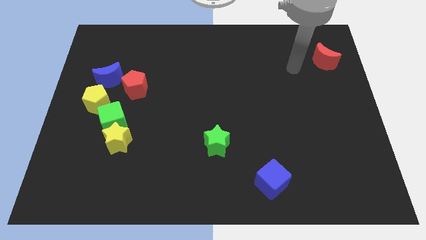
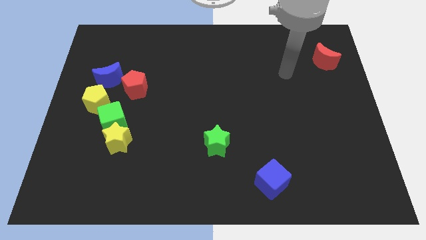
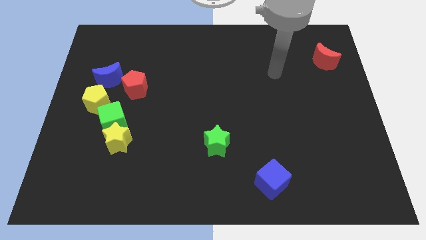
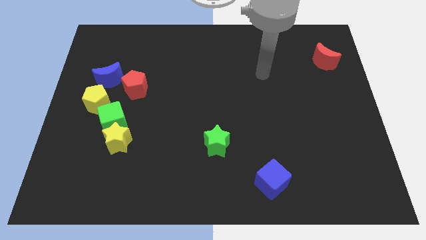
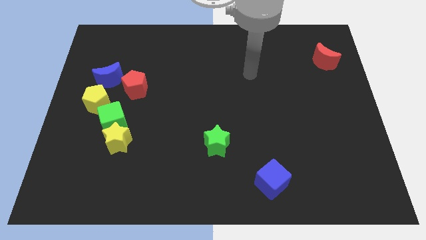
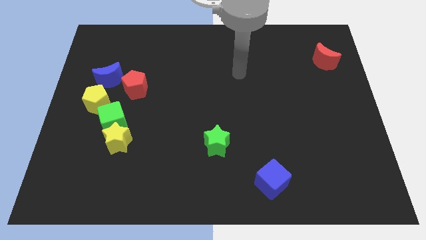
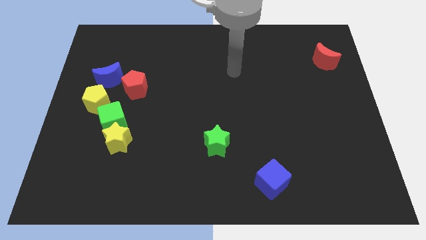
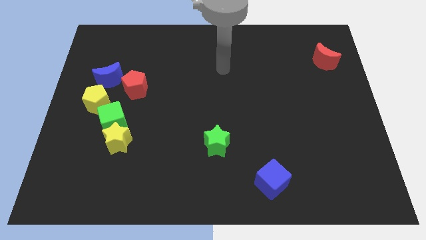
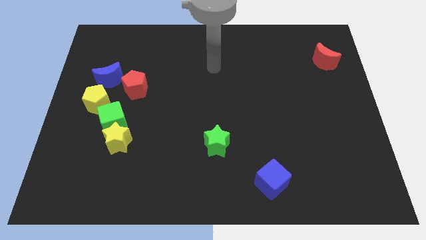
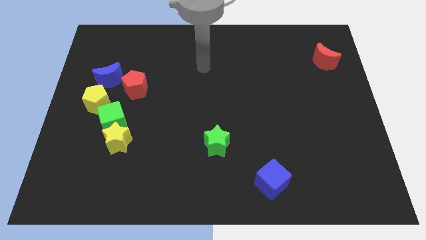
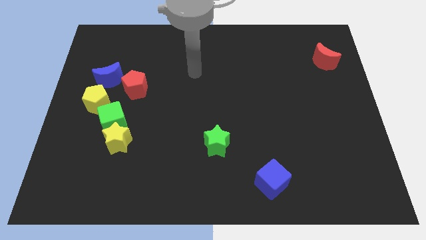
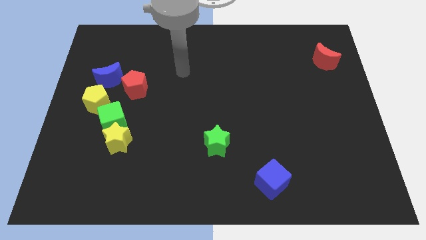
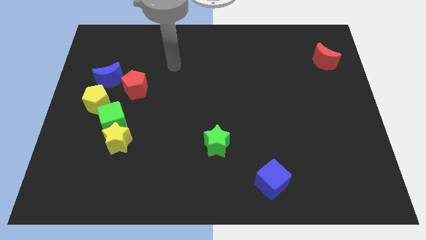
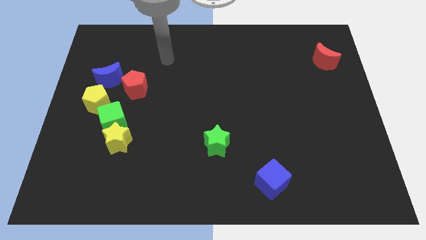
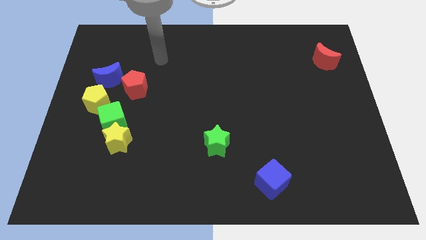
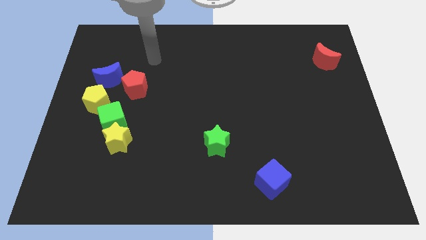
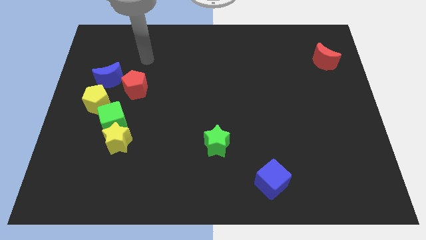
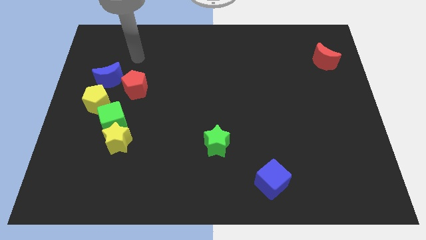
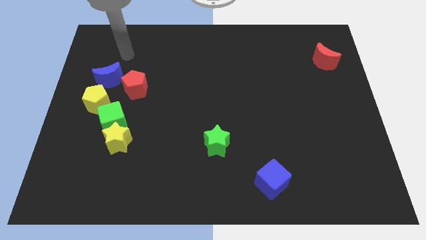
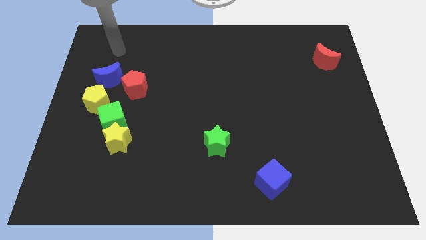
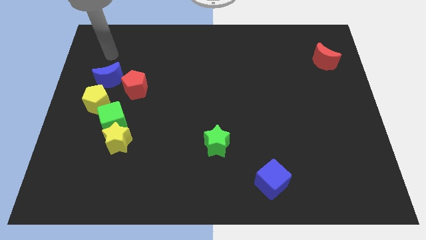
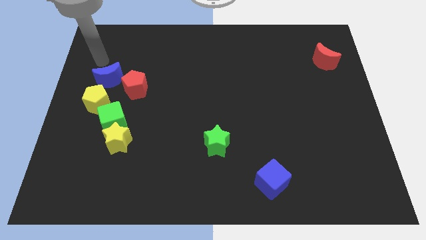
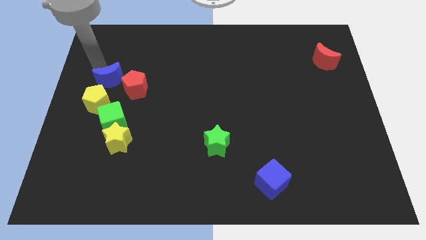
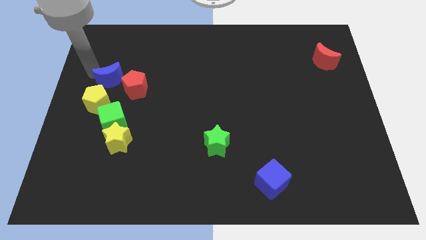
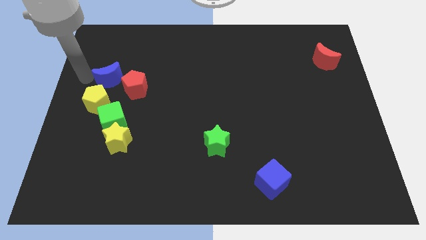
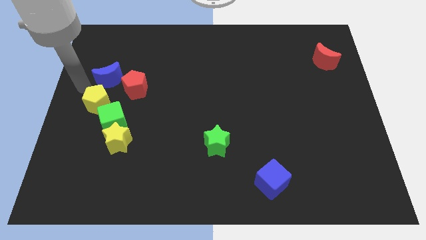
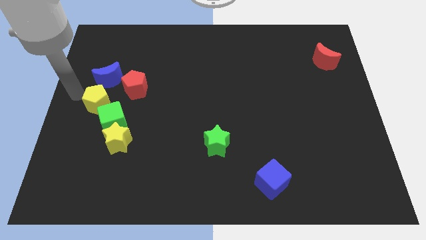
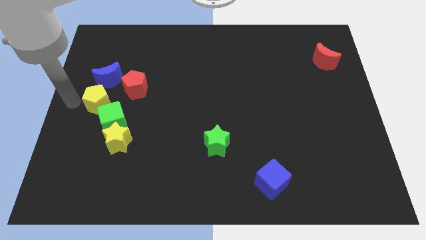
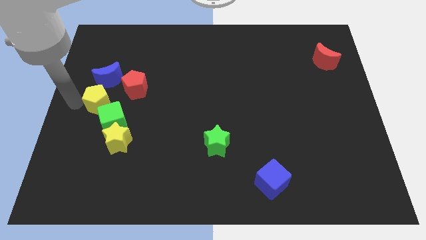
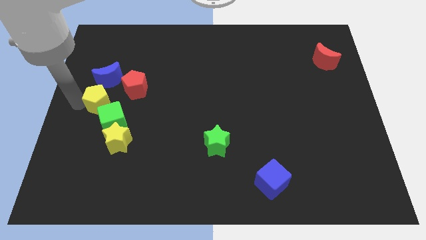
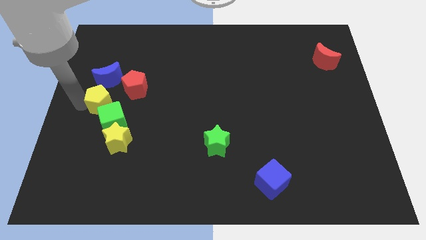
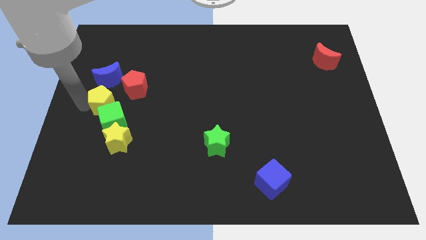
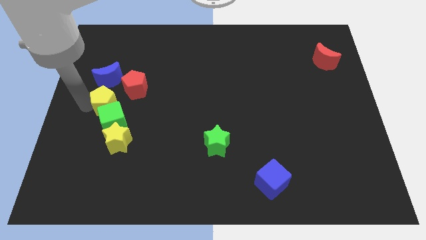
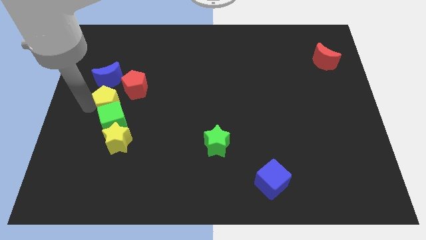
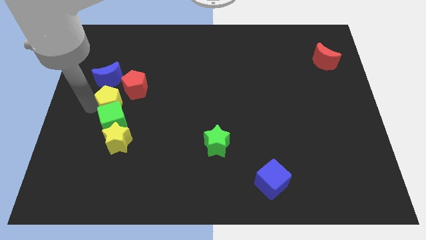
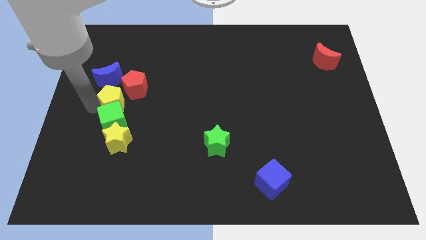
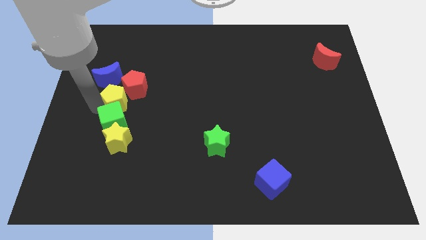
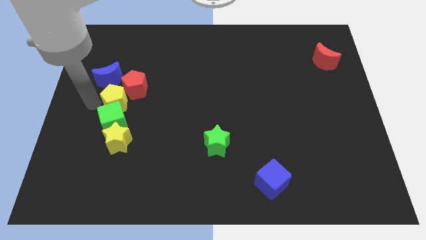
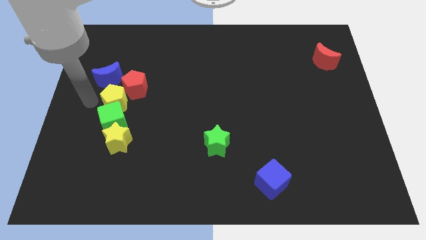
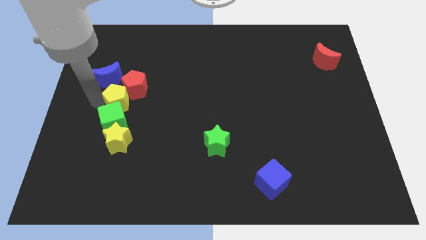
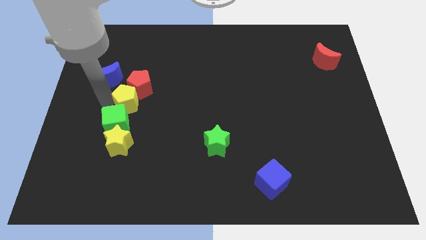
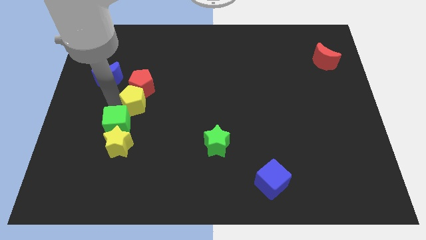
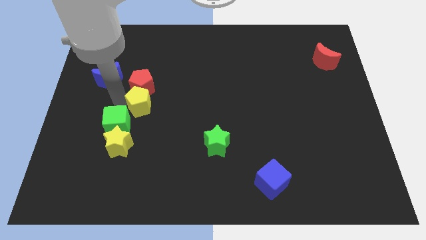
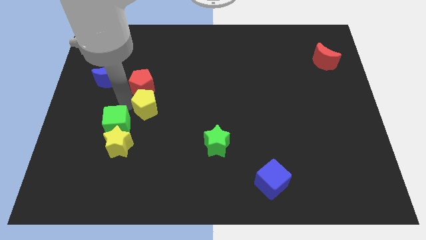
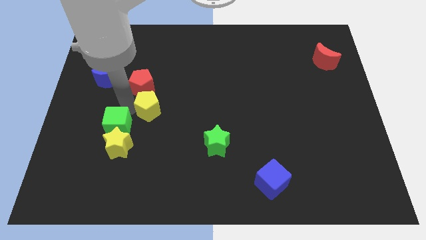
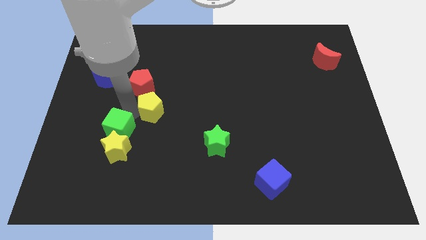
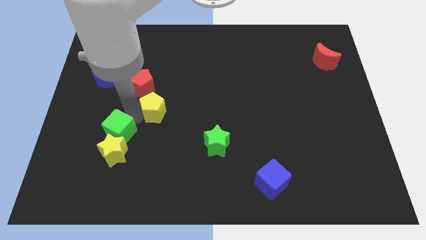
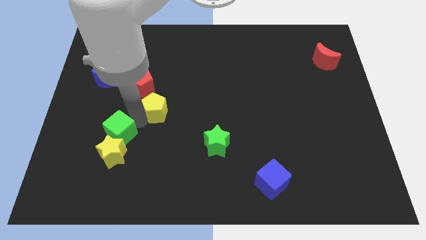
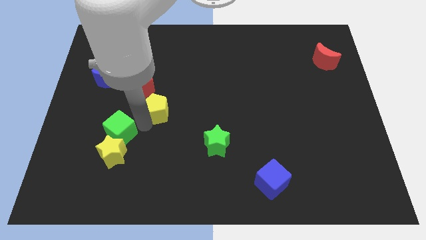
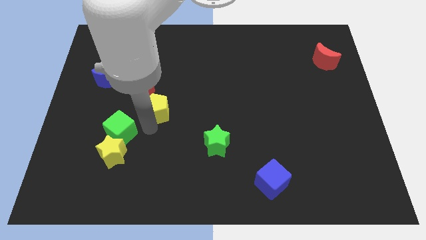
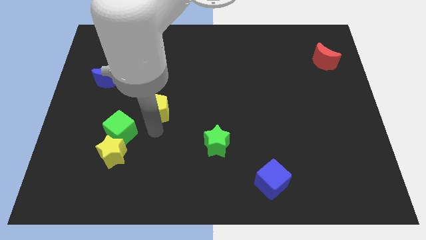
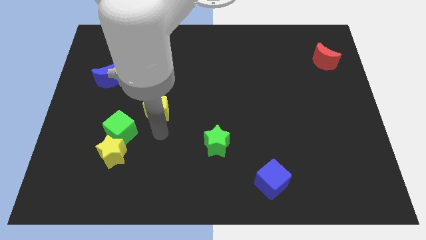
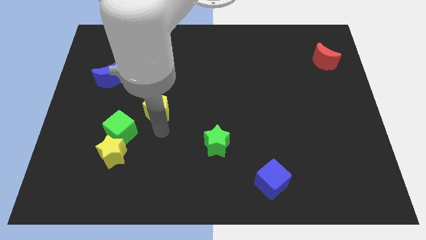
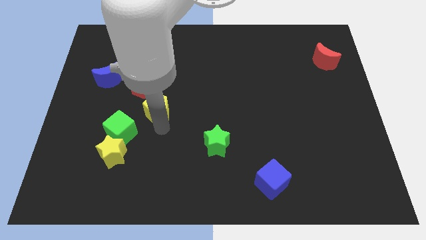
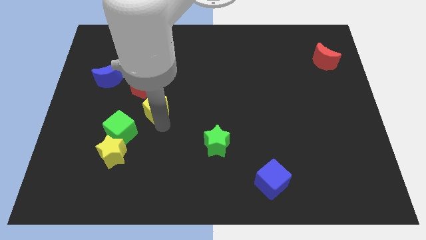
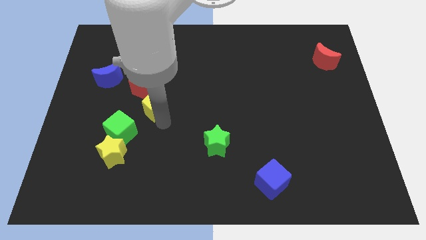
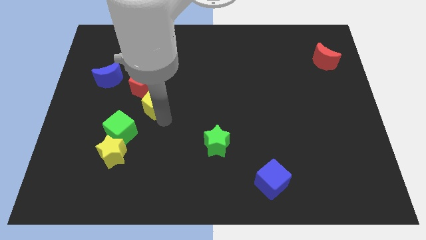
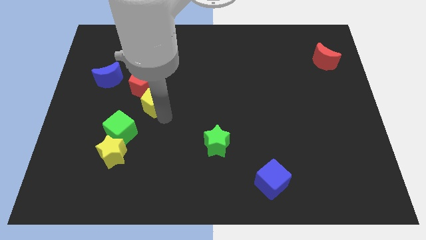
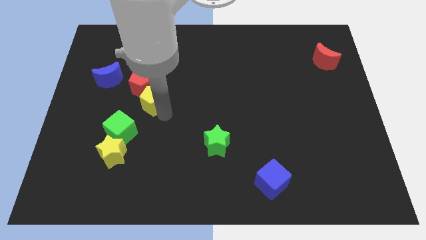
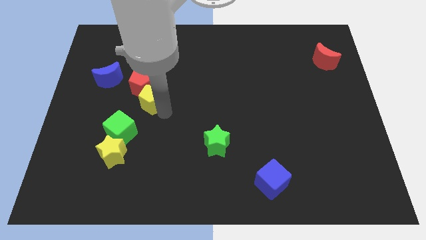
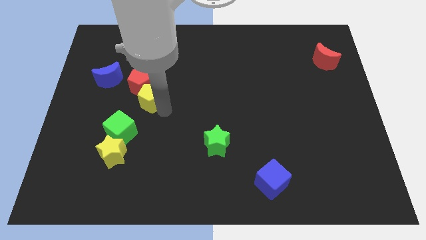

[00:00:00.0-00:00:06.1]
push the yellow pentagon diagonally upwards and right somewhat

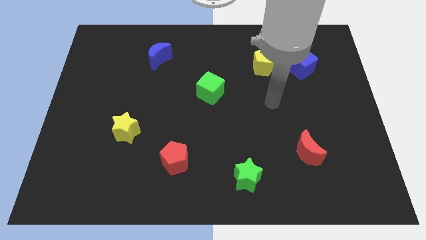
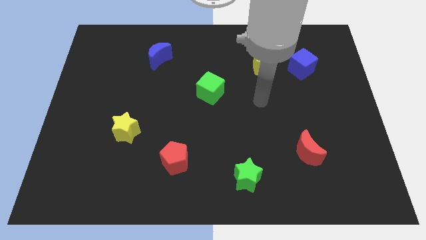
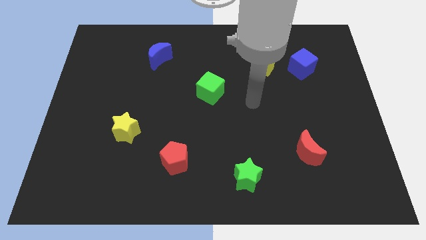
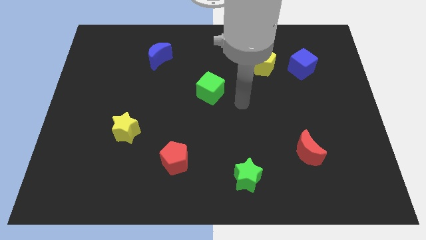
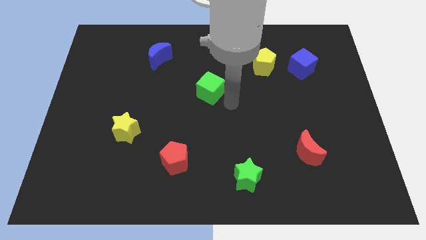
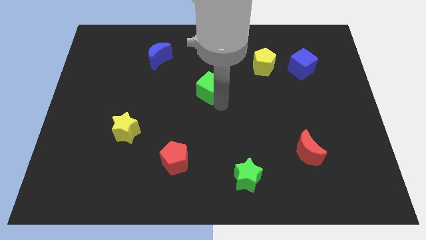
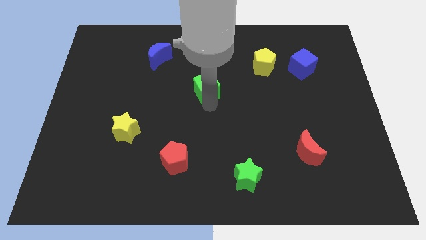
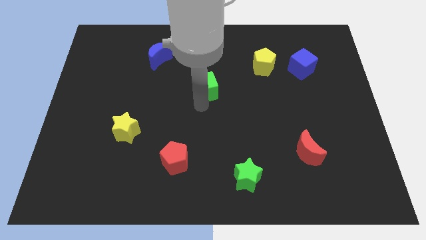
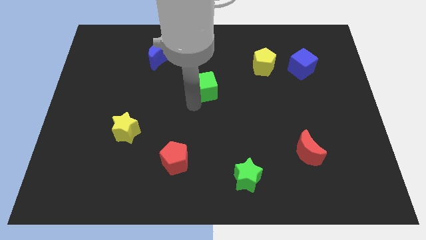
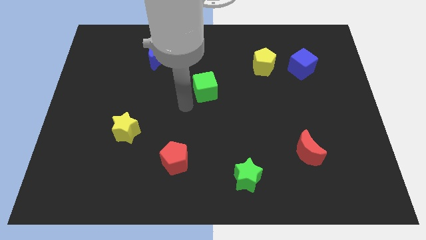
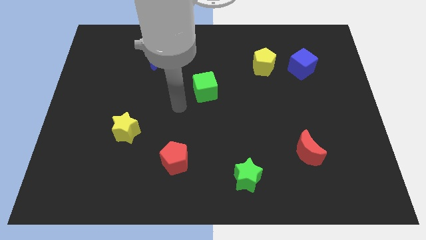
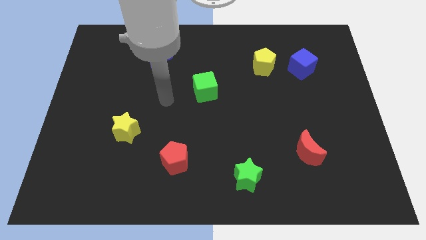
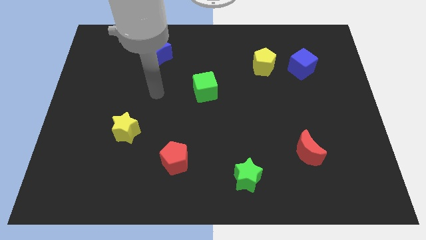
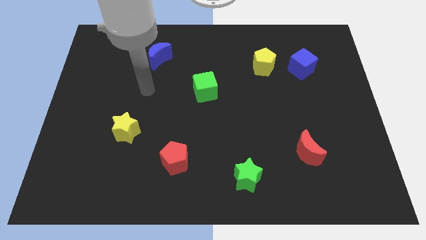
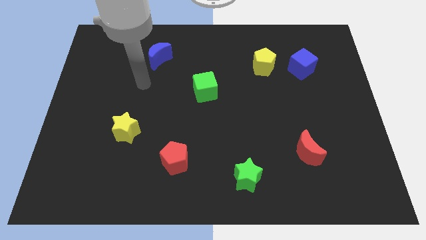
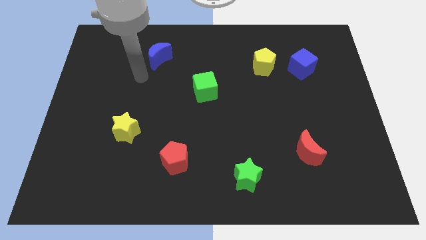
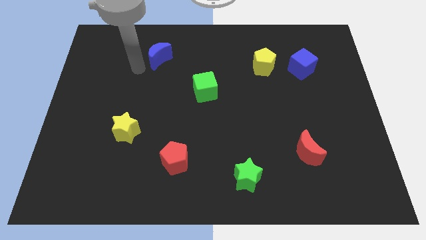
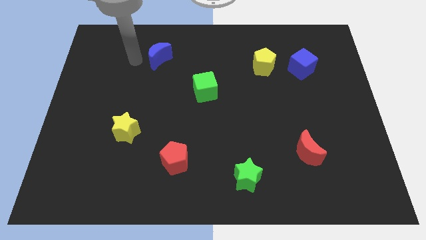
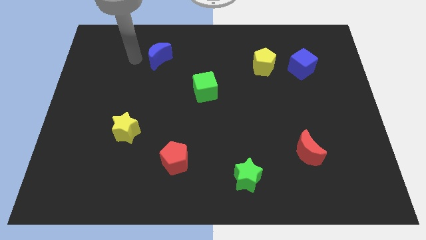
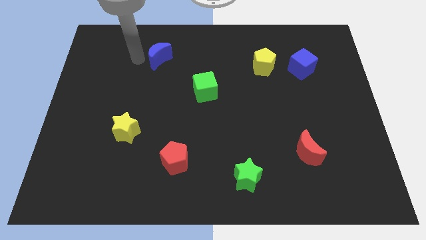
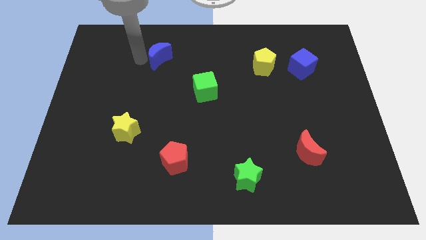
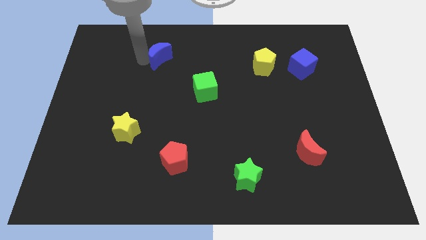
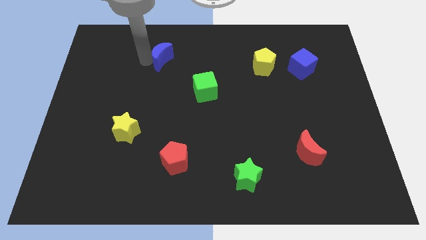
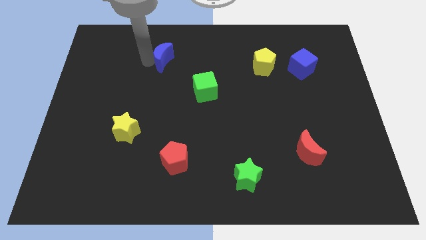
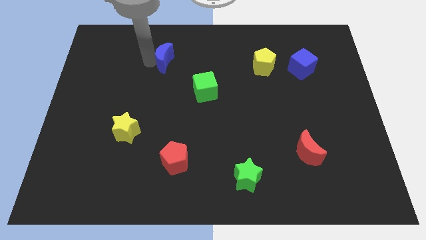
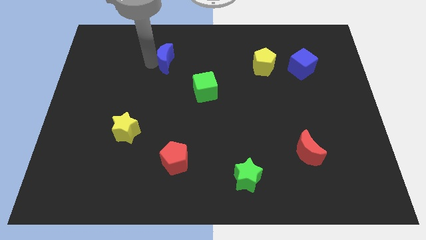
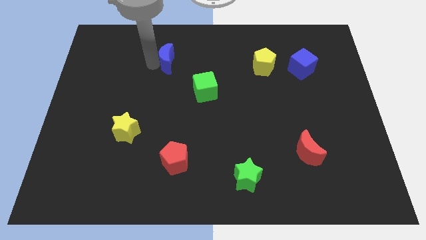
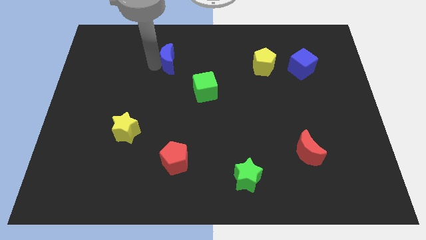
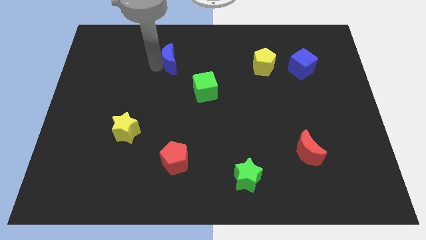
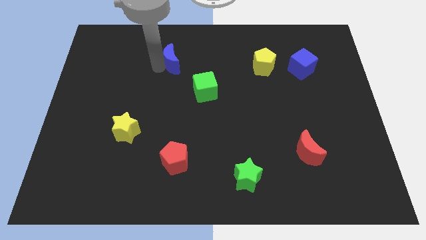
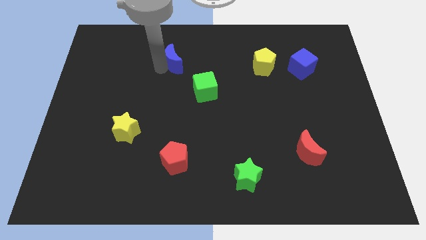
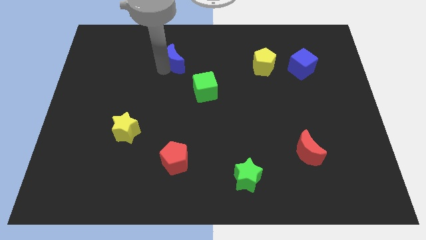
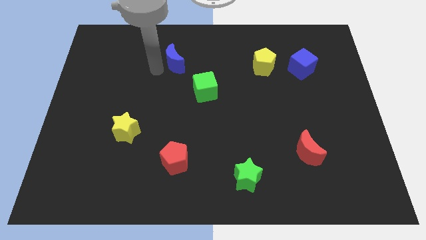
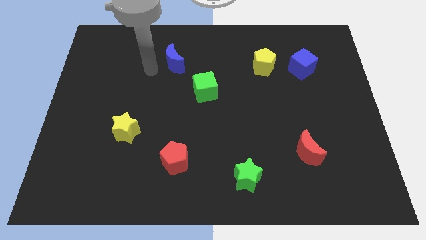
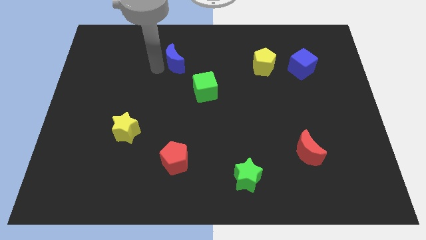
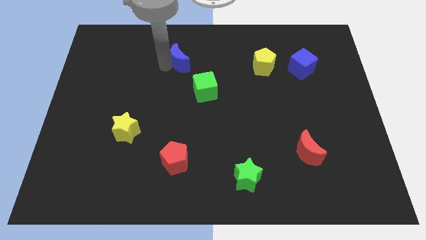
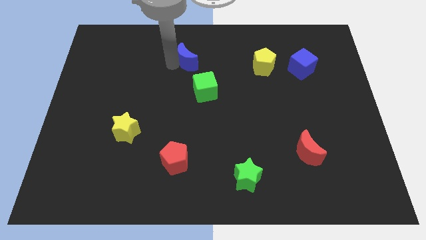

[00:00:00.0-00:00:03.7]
push the blue moon somewhat to the right
